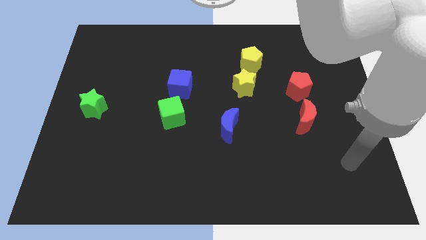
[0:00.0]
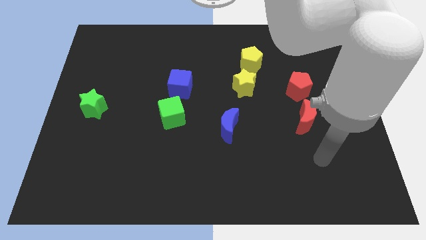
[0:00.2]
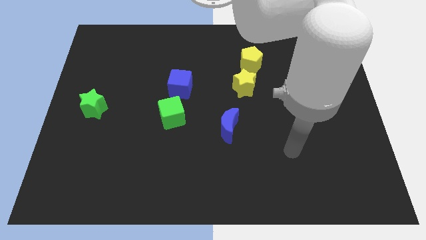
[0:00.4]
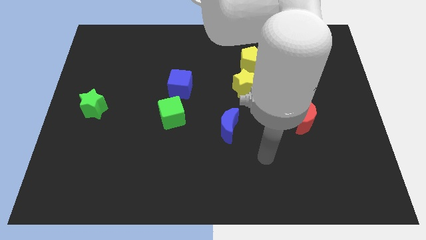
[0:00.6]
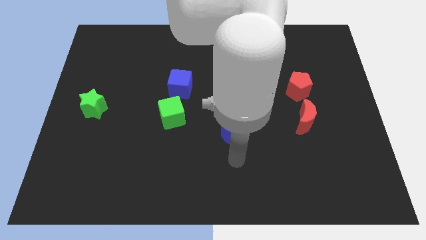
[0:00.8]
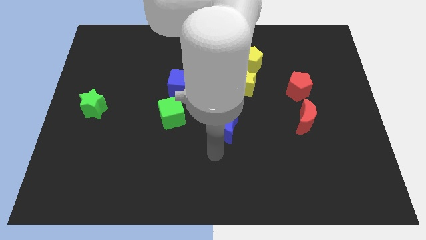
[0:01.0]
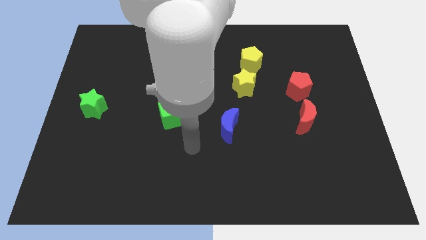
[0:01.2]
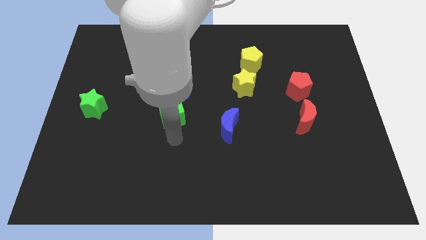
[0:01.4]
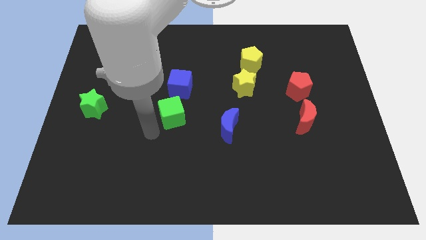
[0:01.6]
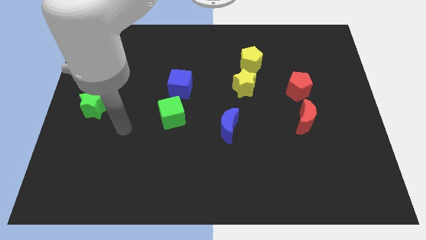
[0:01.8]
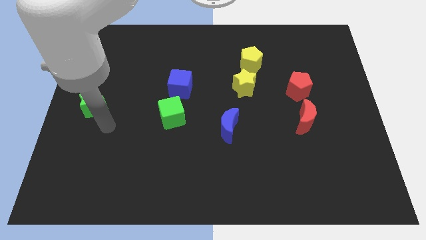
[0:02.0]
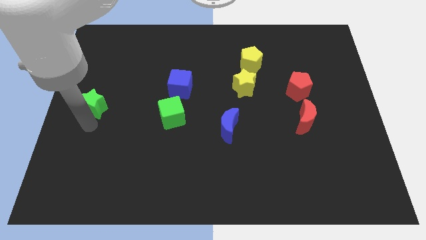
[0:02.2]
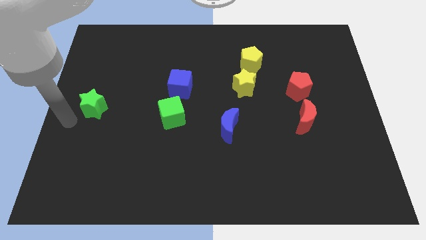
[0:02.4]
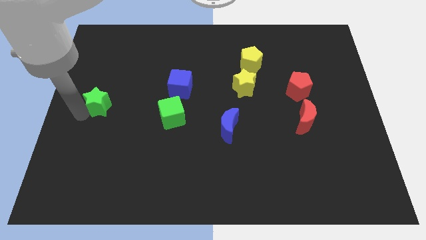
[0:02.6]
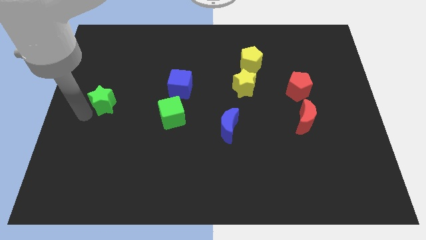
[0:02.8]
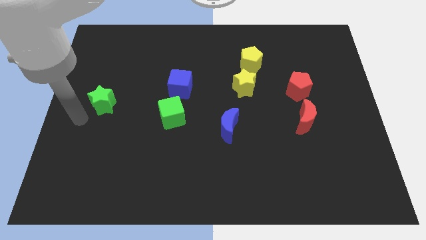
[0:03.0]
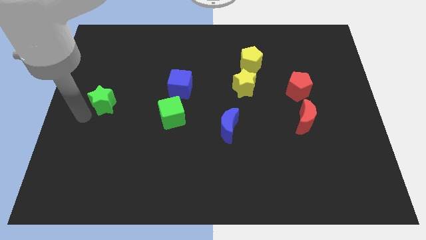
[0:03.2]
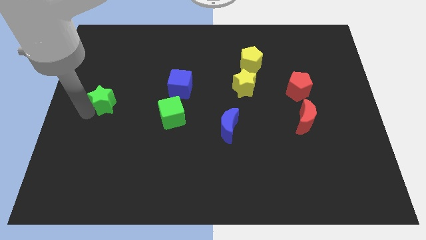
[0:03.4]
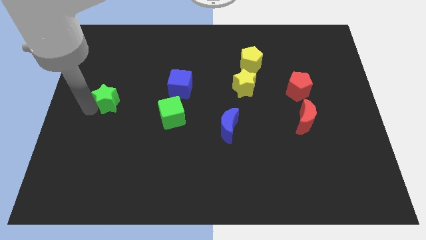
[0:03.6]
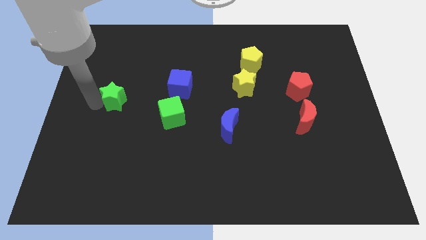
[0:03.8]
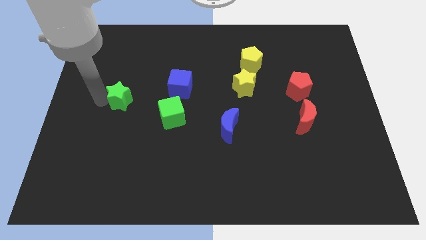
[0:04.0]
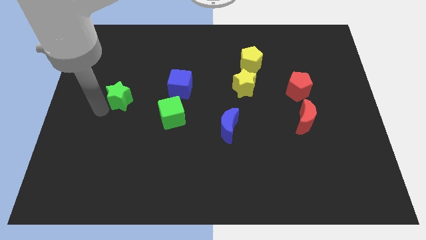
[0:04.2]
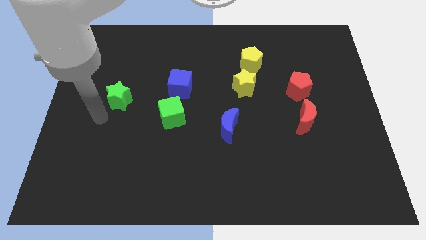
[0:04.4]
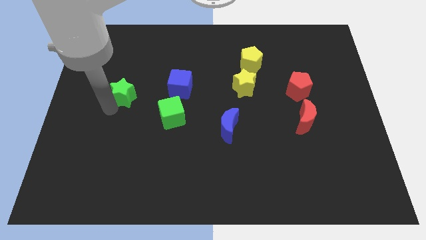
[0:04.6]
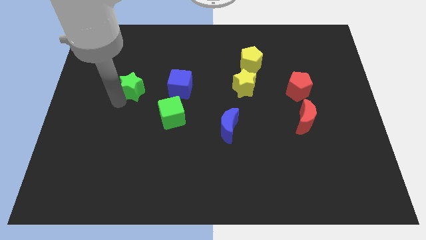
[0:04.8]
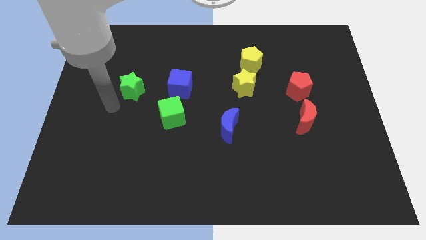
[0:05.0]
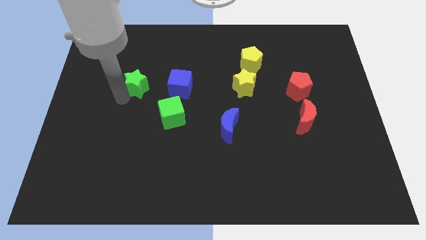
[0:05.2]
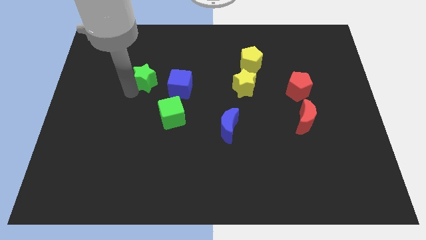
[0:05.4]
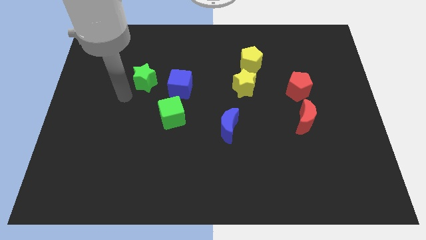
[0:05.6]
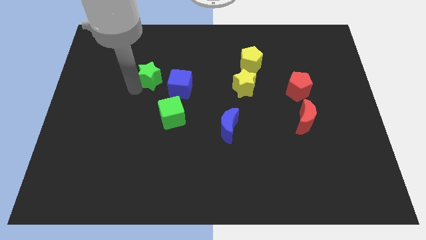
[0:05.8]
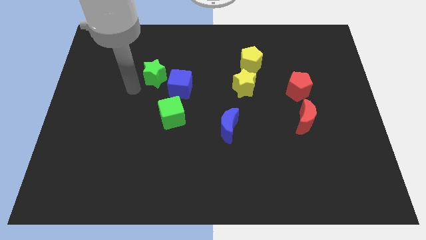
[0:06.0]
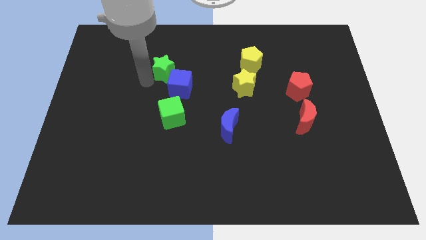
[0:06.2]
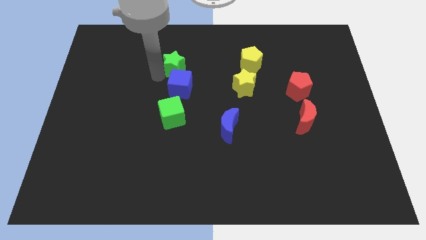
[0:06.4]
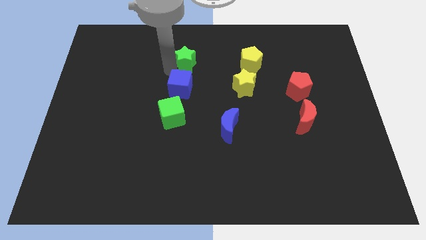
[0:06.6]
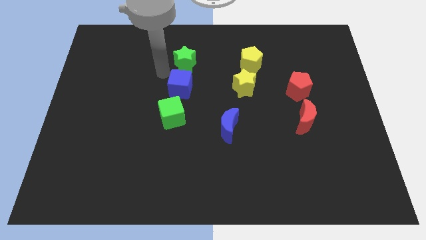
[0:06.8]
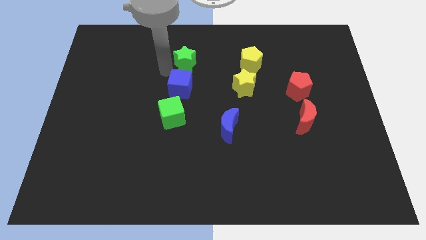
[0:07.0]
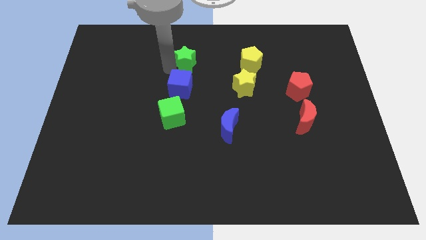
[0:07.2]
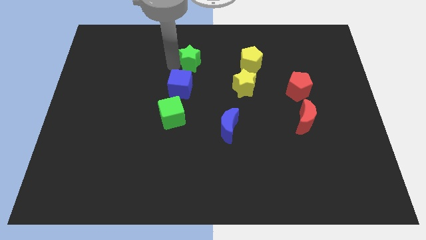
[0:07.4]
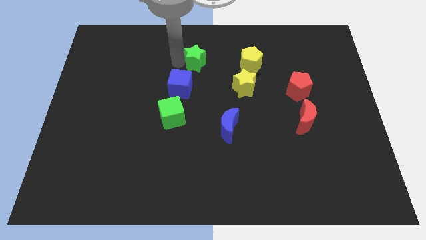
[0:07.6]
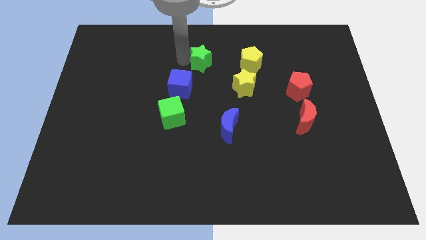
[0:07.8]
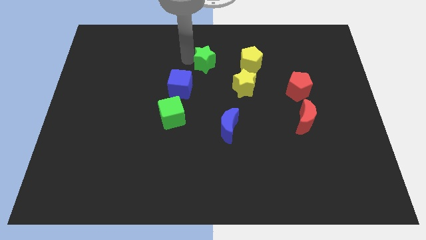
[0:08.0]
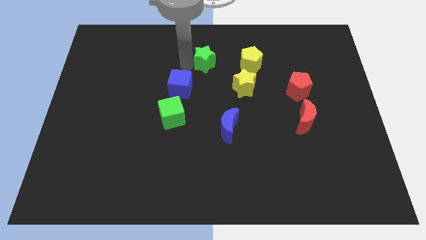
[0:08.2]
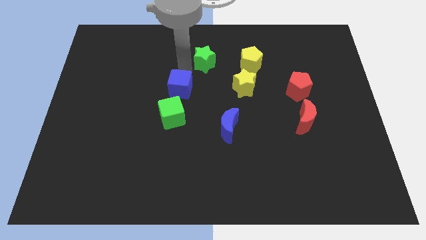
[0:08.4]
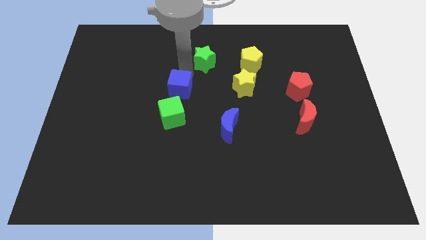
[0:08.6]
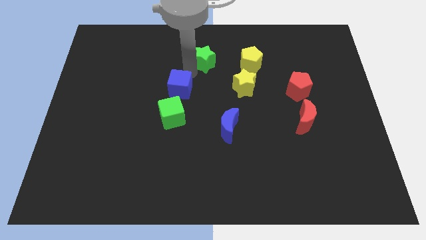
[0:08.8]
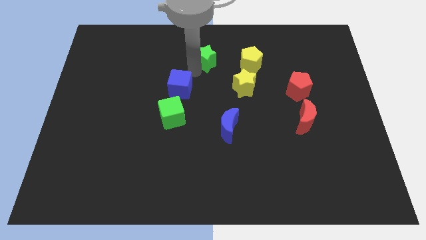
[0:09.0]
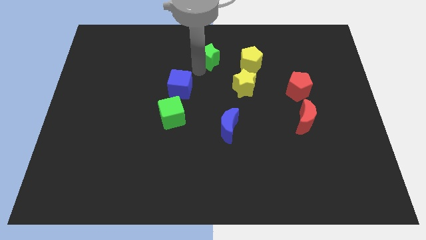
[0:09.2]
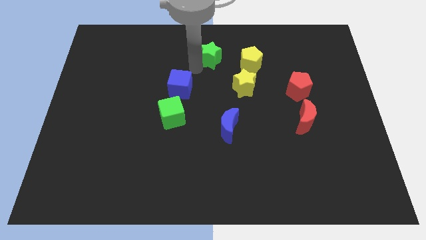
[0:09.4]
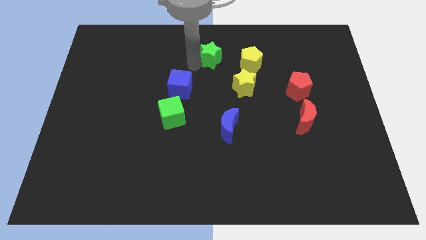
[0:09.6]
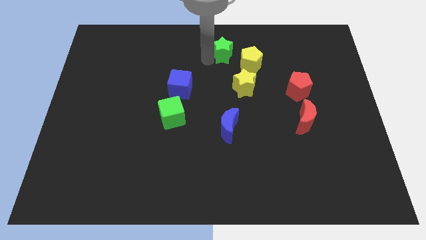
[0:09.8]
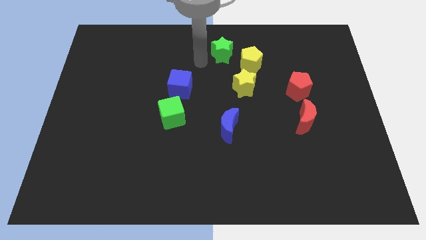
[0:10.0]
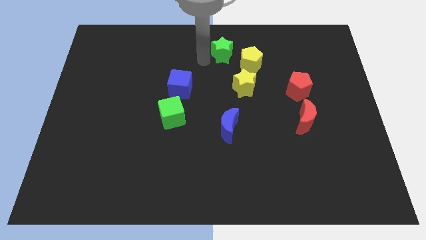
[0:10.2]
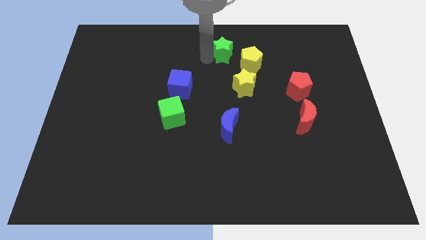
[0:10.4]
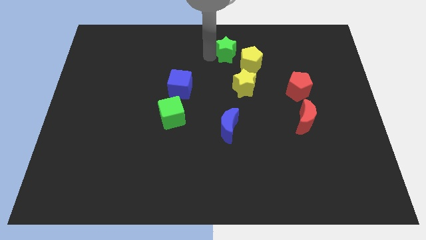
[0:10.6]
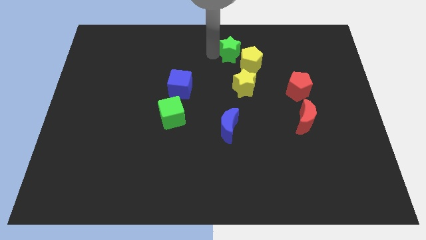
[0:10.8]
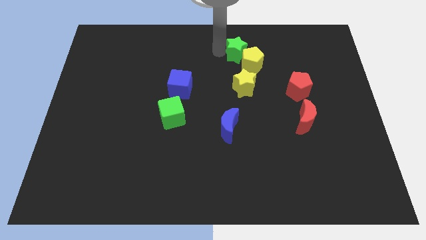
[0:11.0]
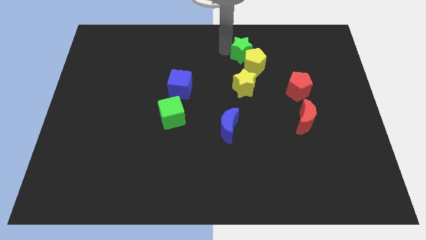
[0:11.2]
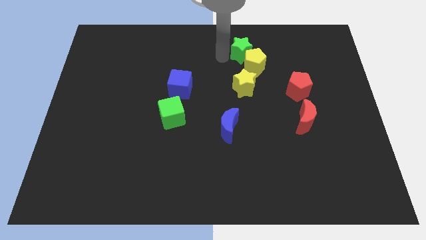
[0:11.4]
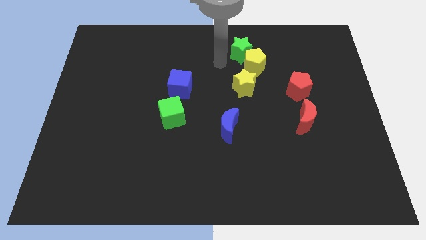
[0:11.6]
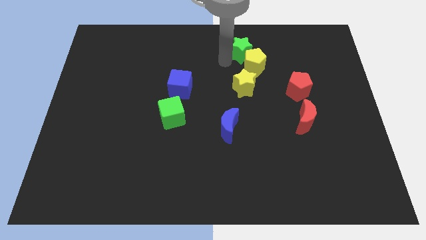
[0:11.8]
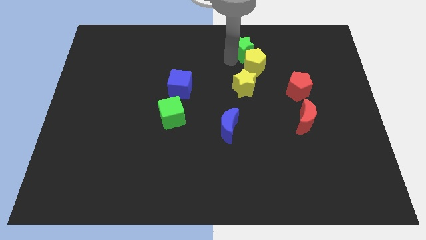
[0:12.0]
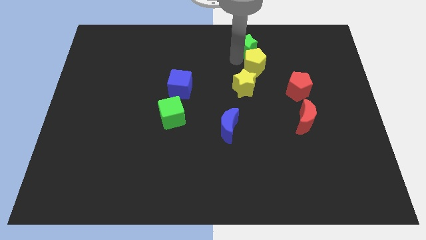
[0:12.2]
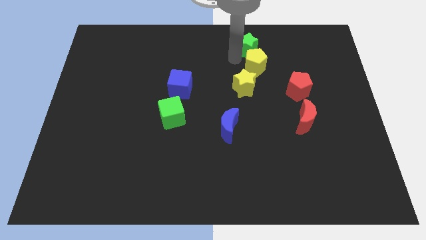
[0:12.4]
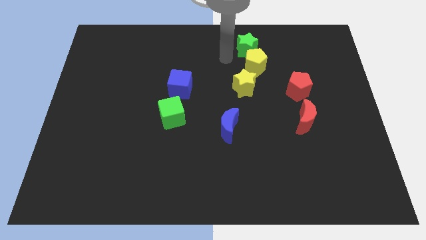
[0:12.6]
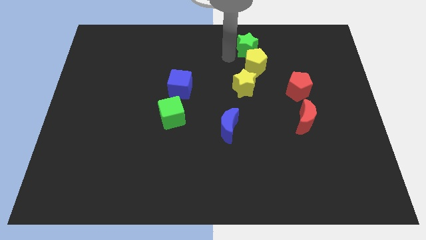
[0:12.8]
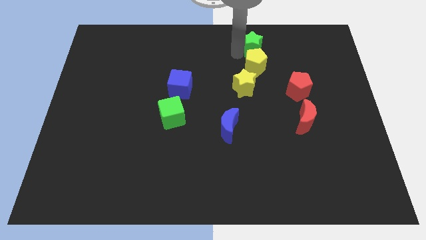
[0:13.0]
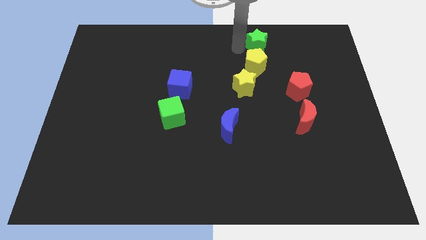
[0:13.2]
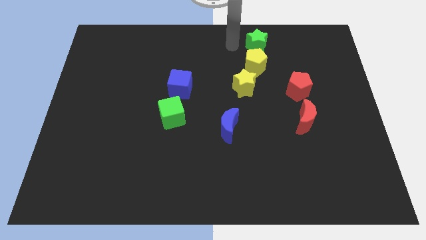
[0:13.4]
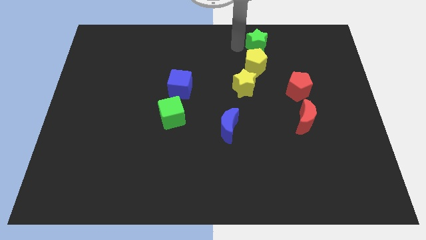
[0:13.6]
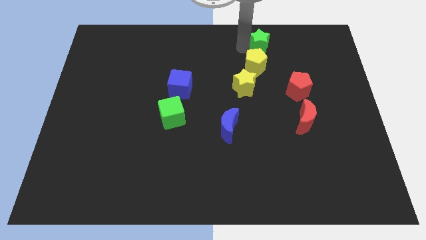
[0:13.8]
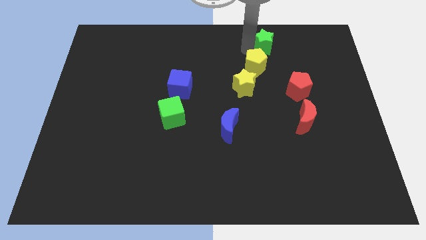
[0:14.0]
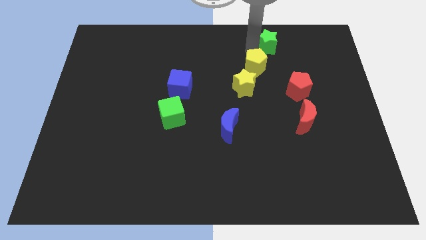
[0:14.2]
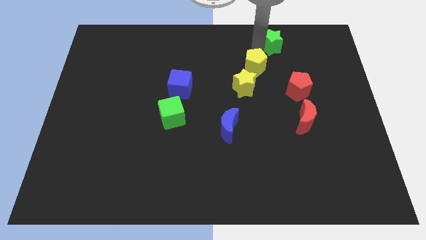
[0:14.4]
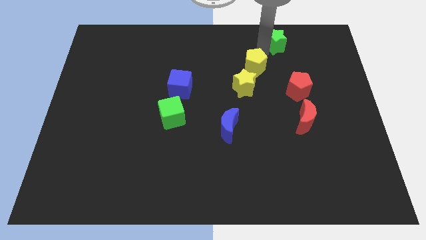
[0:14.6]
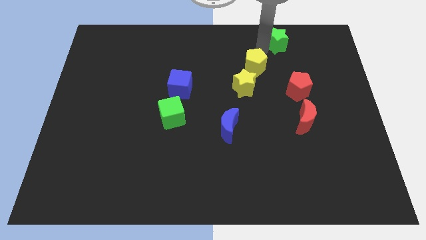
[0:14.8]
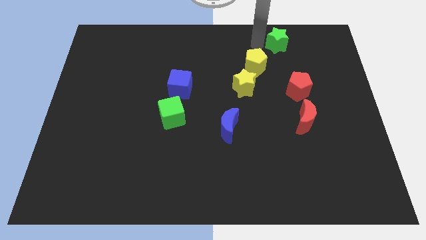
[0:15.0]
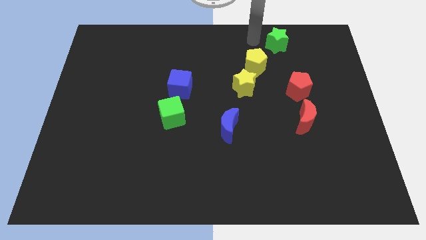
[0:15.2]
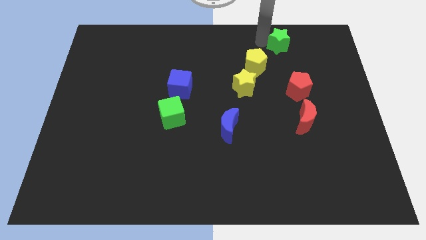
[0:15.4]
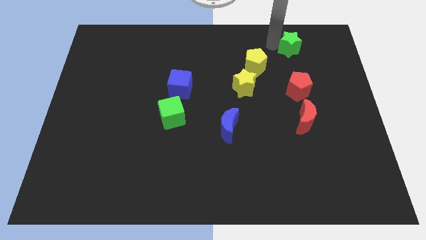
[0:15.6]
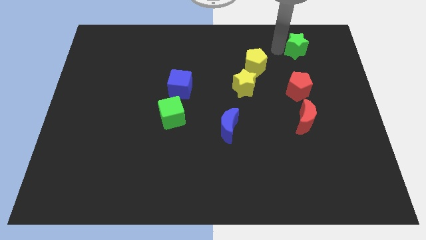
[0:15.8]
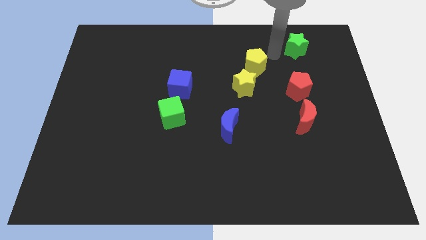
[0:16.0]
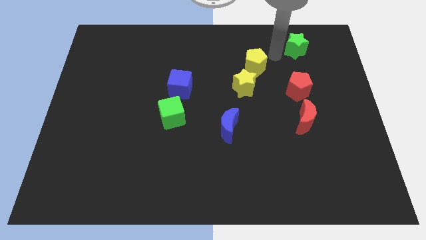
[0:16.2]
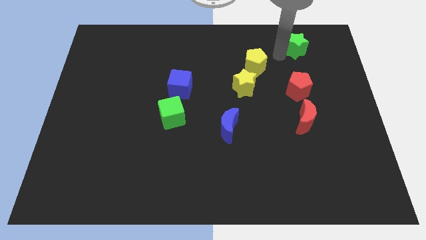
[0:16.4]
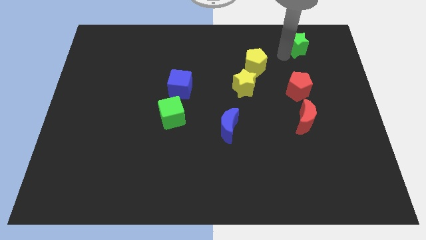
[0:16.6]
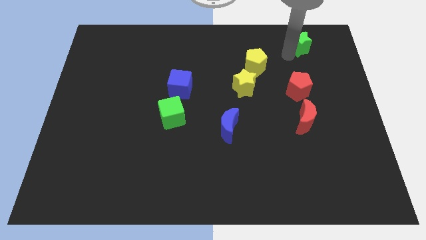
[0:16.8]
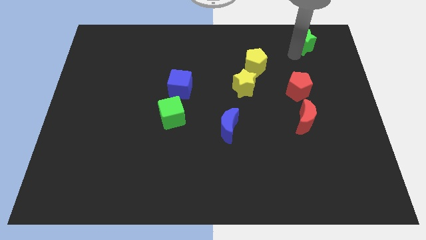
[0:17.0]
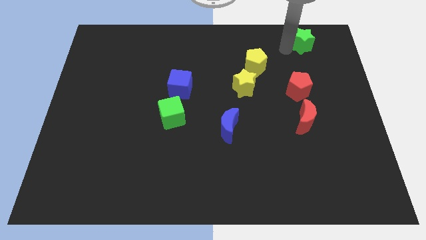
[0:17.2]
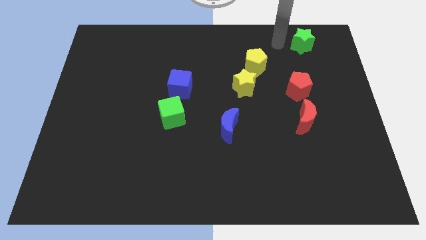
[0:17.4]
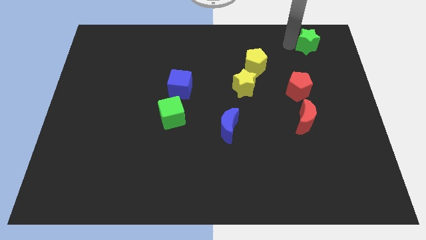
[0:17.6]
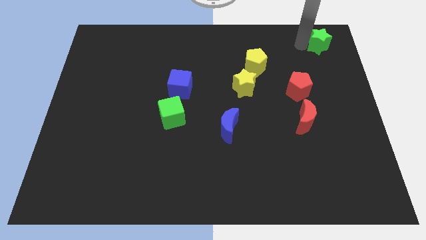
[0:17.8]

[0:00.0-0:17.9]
move the green star to the top right corner
